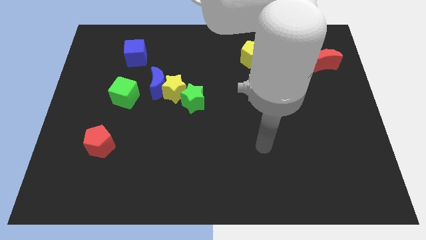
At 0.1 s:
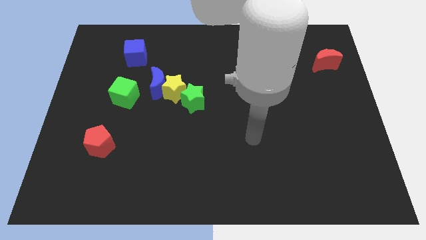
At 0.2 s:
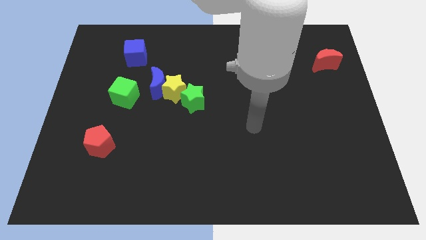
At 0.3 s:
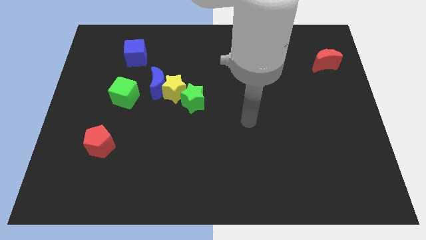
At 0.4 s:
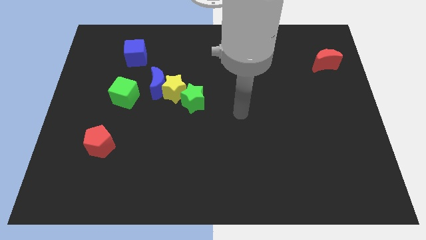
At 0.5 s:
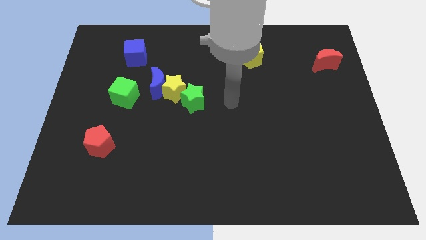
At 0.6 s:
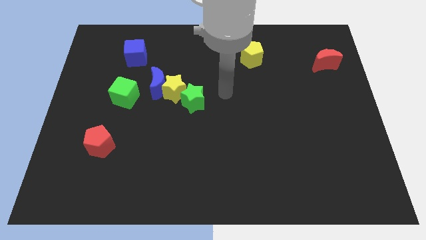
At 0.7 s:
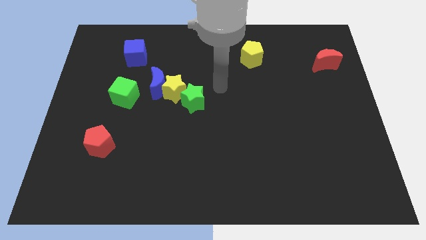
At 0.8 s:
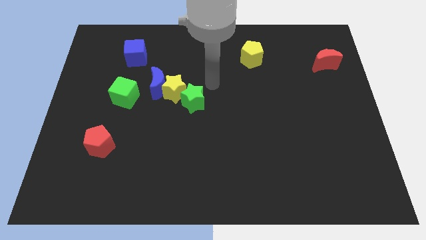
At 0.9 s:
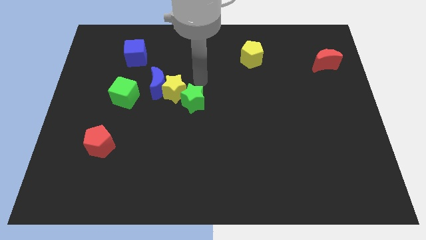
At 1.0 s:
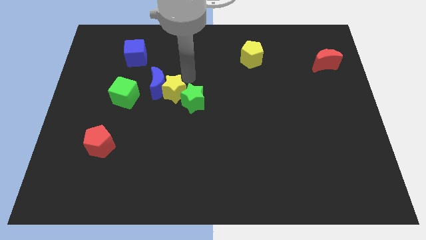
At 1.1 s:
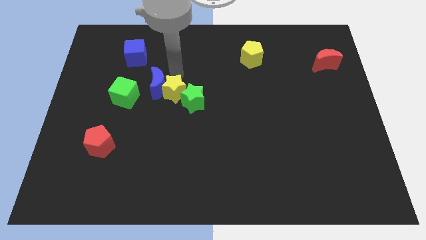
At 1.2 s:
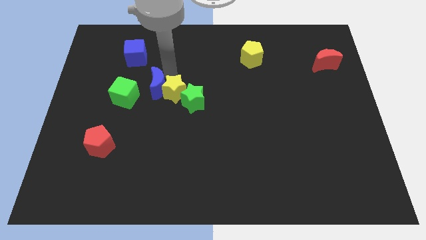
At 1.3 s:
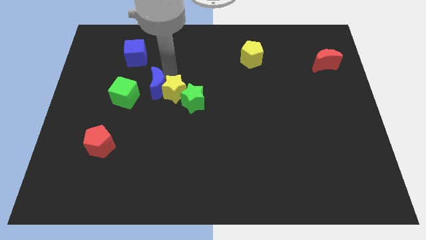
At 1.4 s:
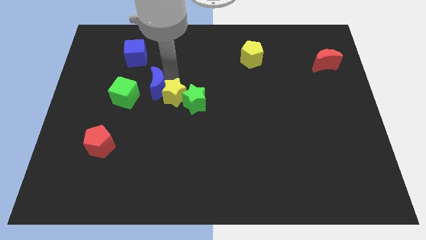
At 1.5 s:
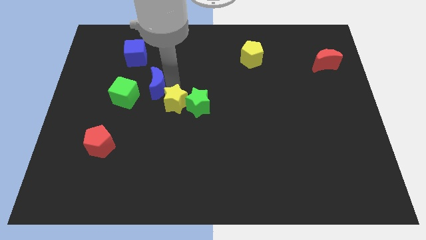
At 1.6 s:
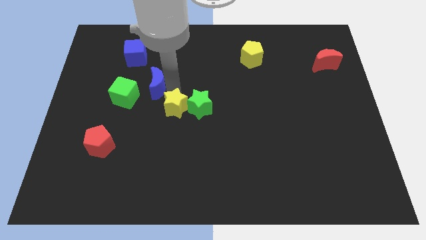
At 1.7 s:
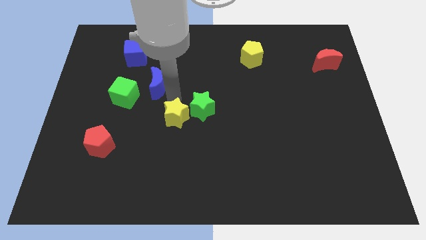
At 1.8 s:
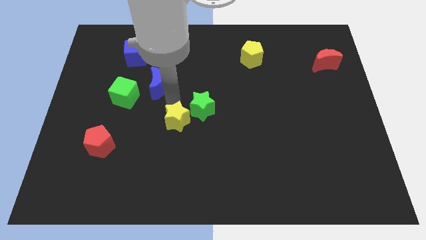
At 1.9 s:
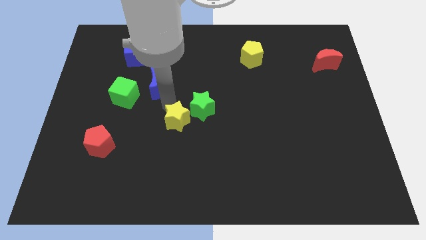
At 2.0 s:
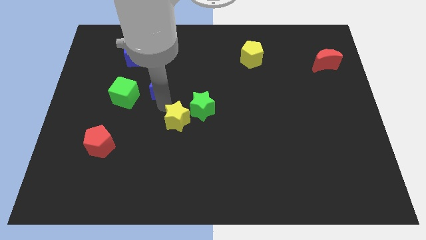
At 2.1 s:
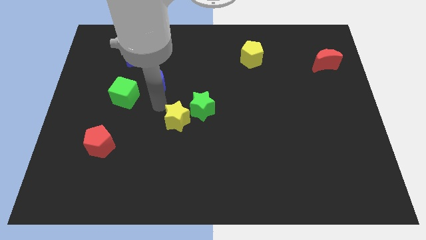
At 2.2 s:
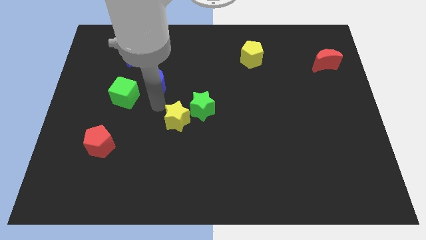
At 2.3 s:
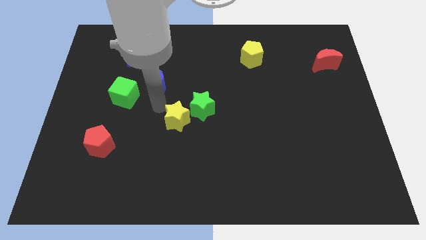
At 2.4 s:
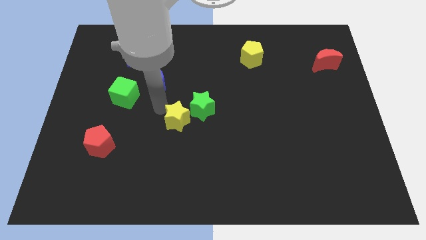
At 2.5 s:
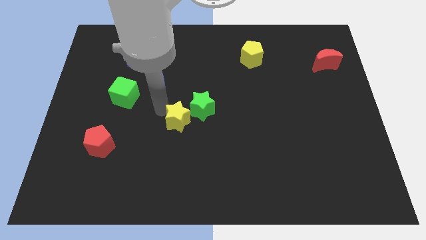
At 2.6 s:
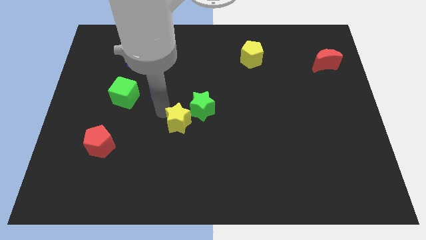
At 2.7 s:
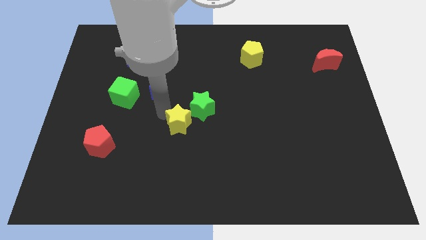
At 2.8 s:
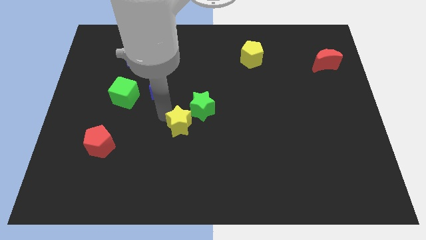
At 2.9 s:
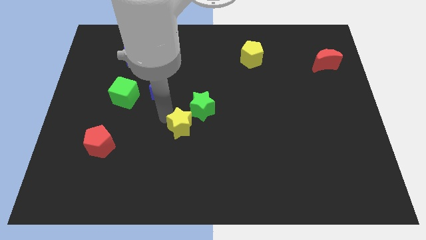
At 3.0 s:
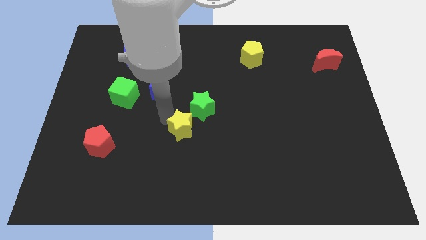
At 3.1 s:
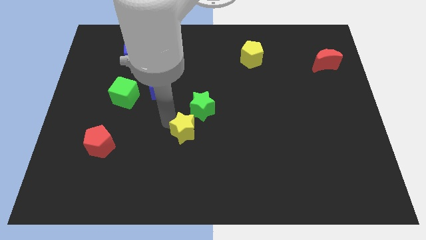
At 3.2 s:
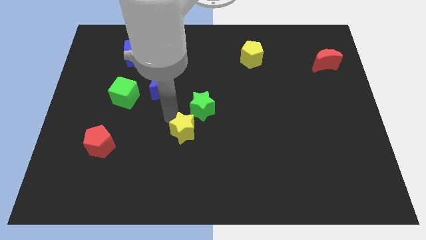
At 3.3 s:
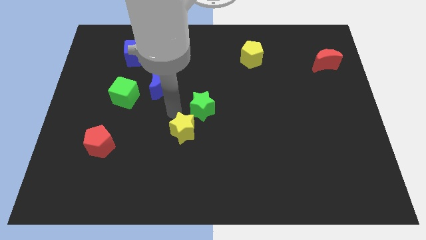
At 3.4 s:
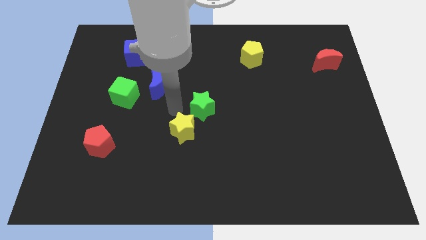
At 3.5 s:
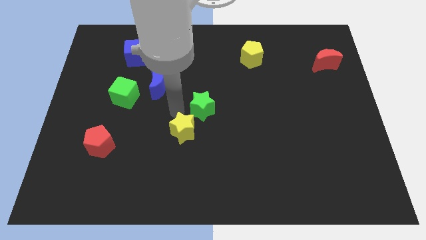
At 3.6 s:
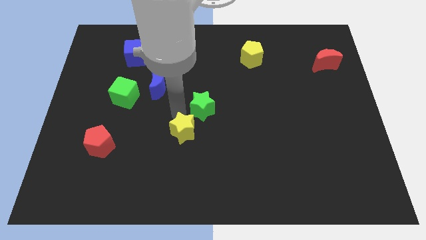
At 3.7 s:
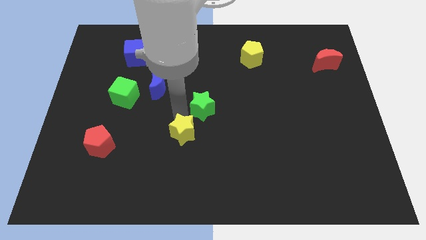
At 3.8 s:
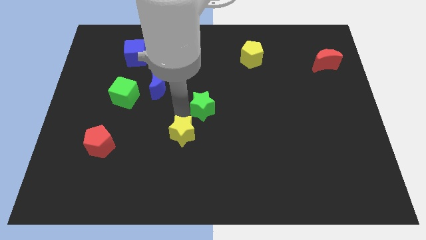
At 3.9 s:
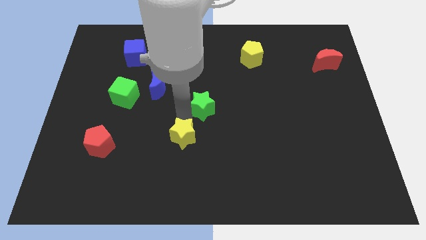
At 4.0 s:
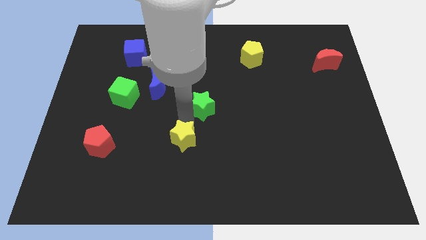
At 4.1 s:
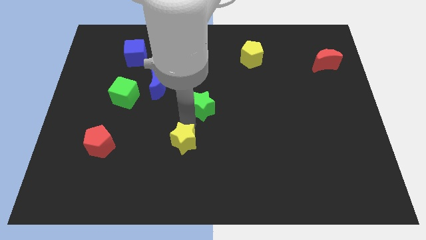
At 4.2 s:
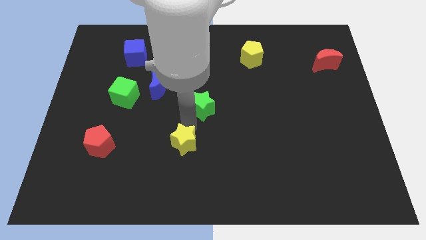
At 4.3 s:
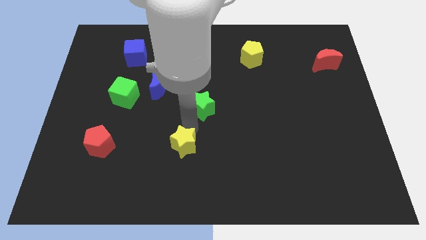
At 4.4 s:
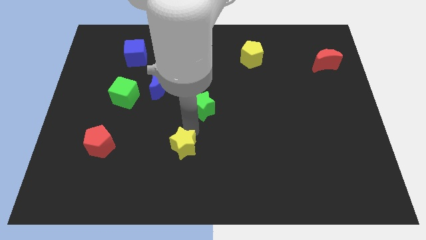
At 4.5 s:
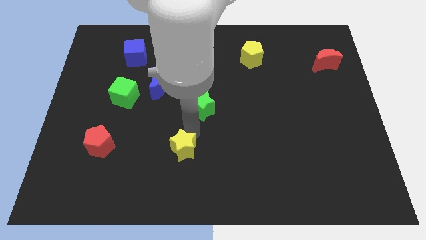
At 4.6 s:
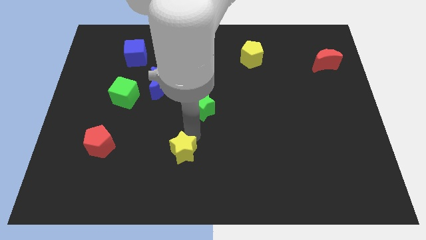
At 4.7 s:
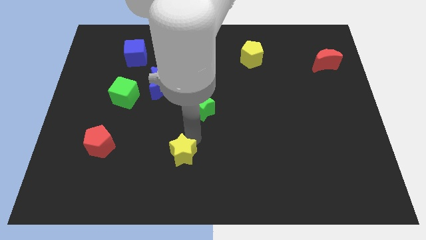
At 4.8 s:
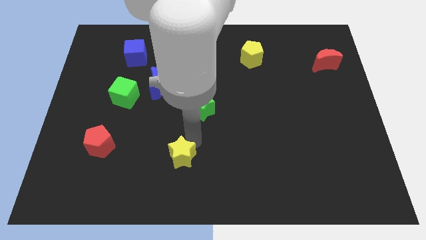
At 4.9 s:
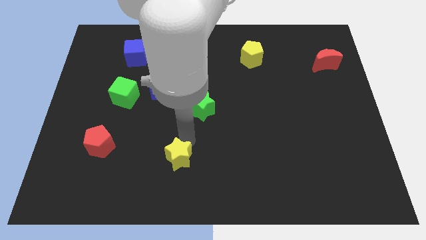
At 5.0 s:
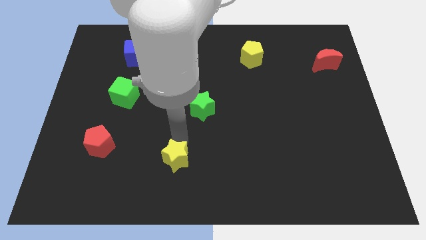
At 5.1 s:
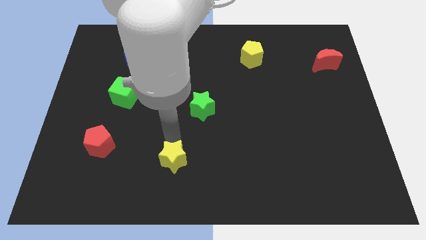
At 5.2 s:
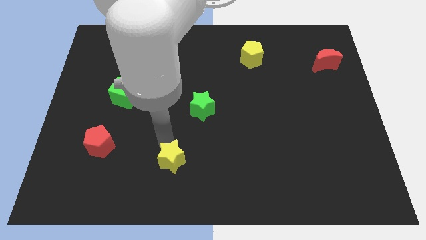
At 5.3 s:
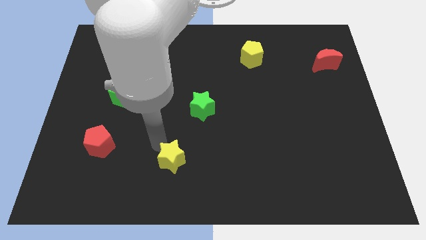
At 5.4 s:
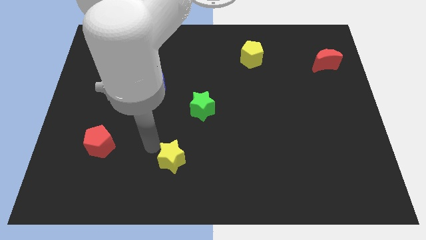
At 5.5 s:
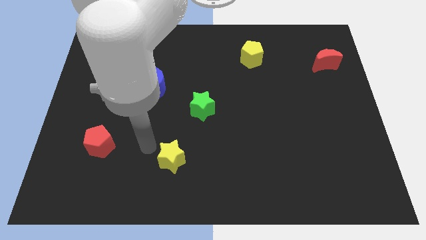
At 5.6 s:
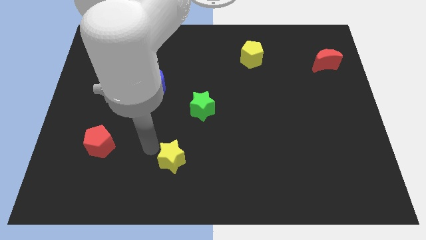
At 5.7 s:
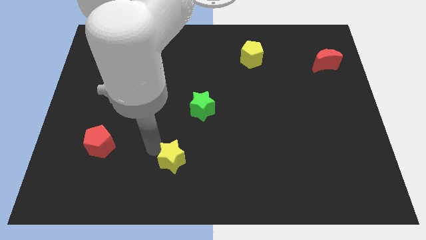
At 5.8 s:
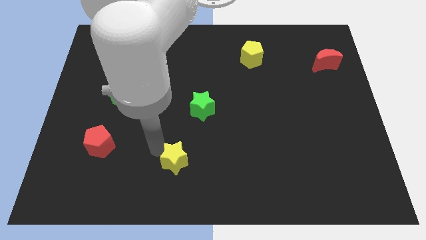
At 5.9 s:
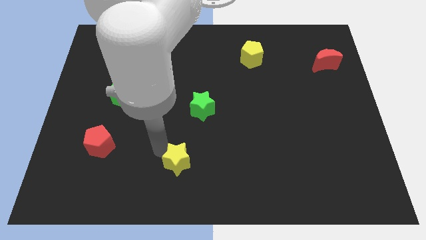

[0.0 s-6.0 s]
move the yellow star to the bottom side
